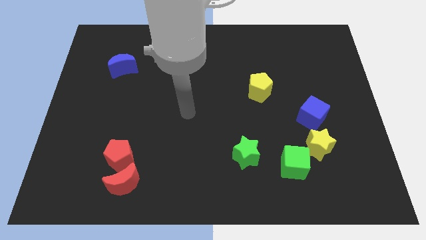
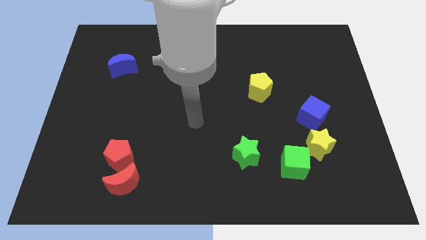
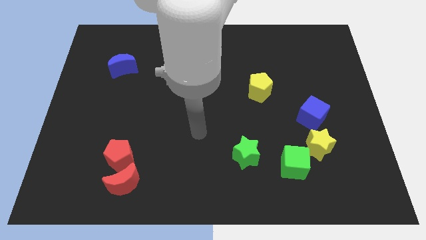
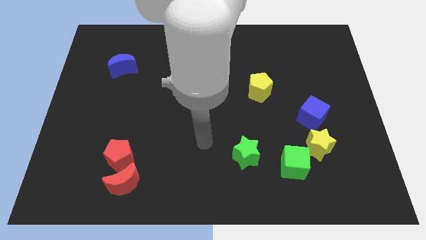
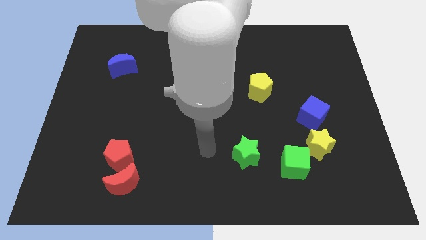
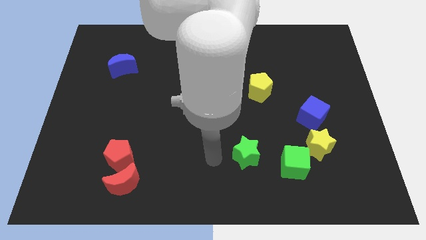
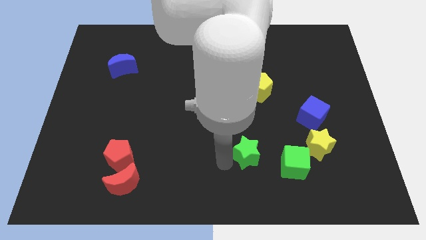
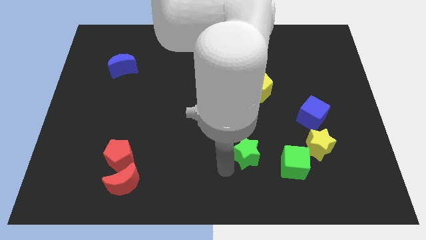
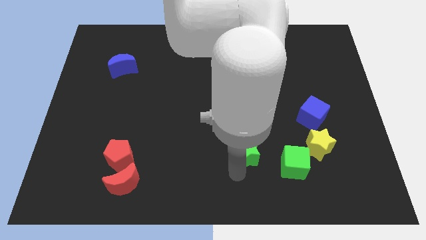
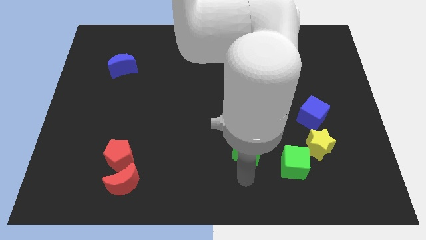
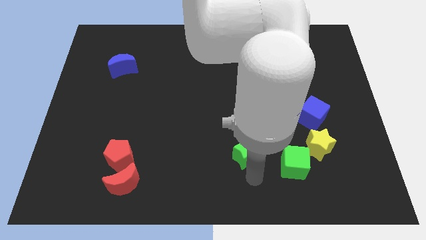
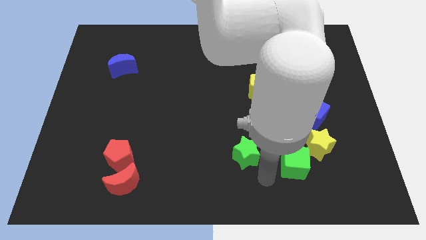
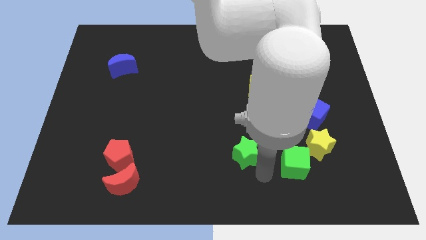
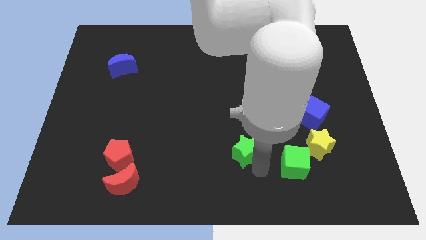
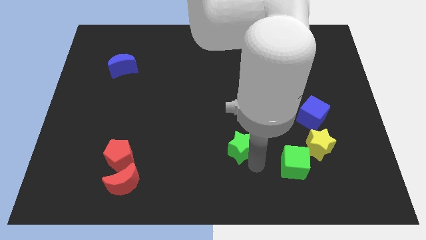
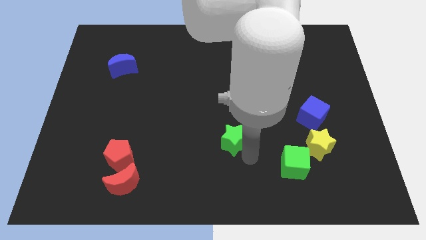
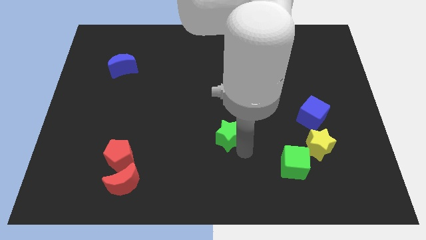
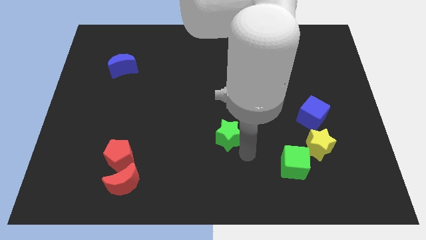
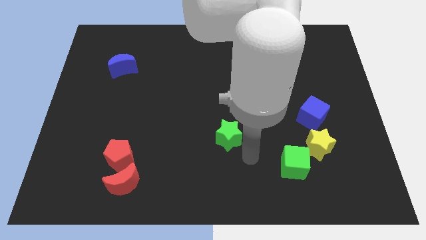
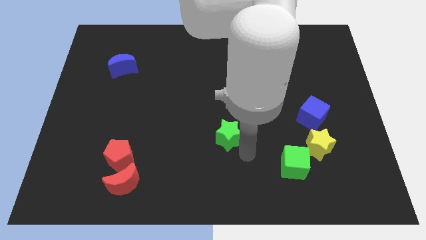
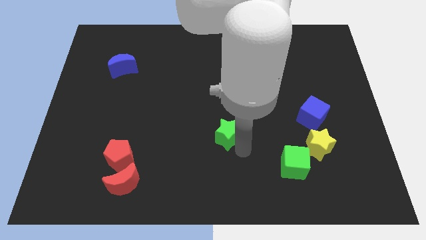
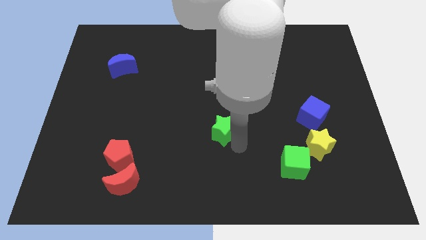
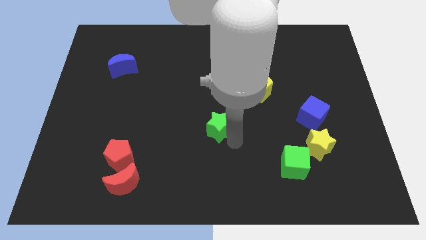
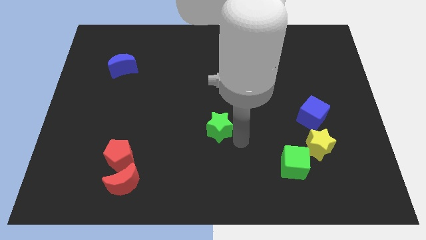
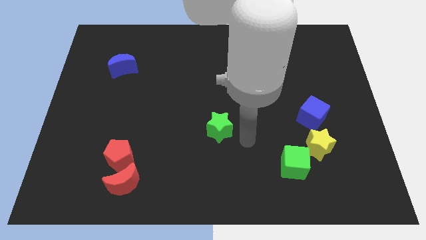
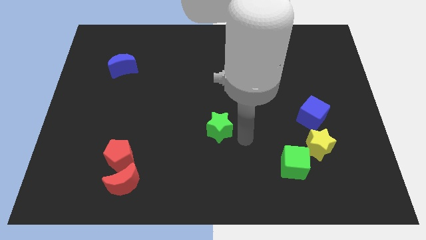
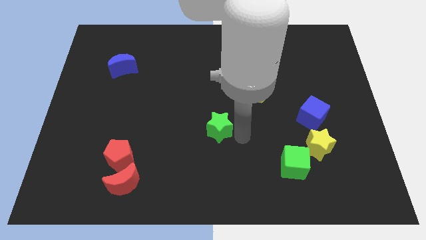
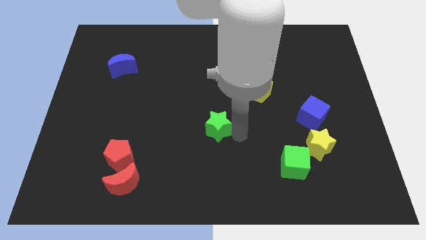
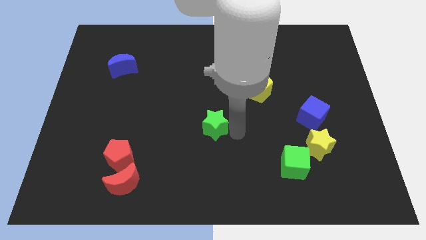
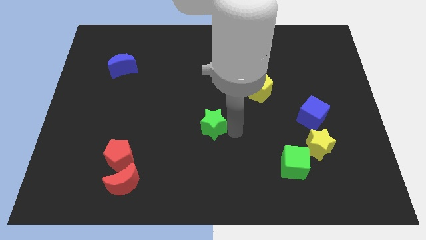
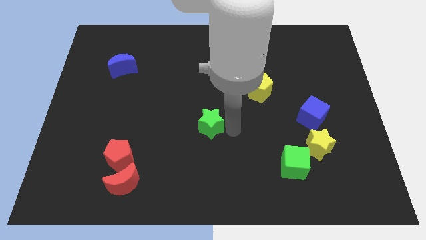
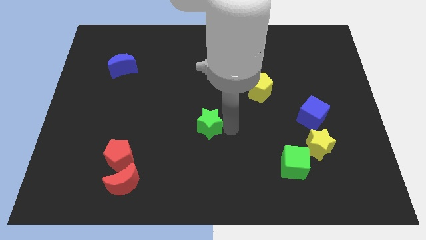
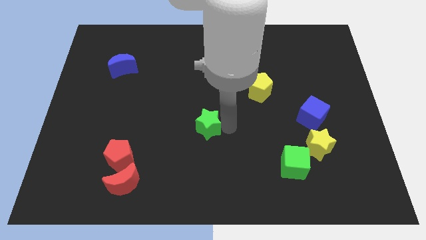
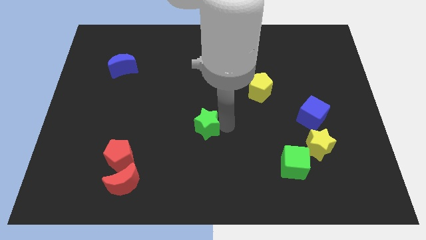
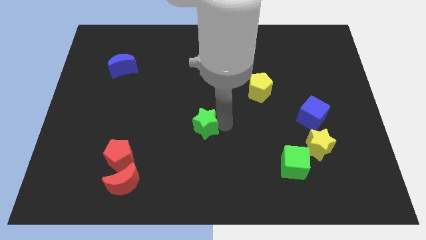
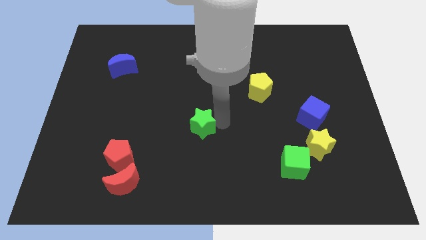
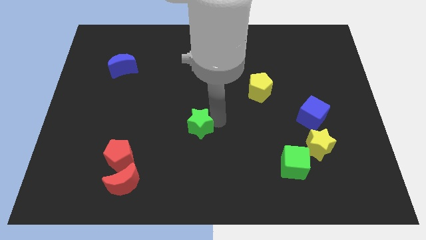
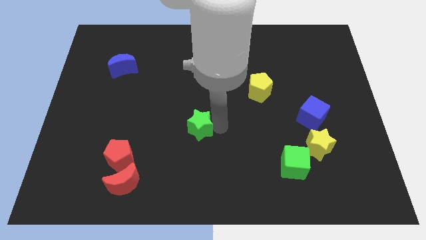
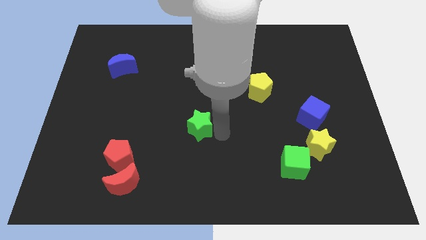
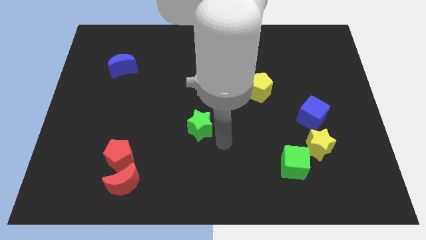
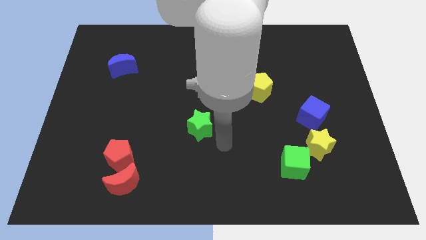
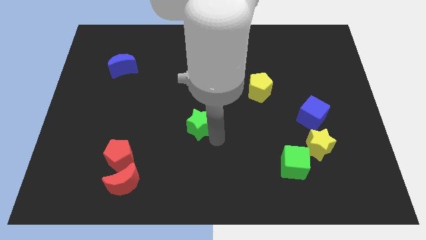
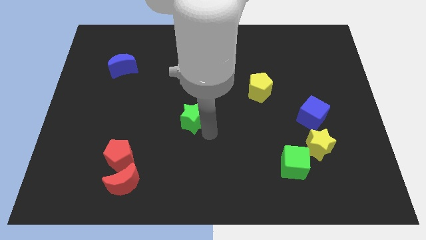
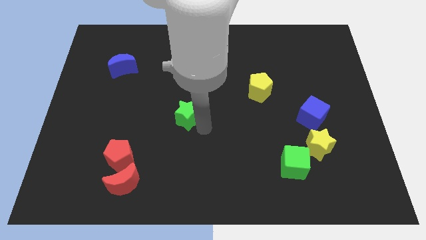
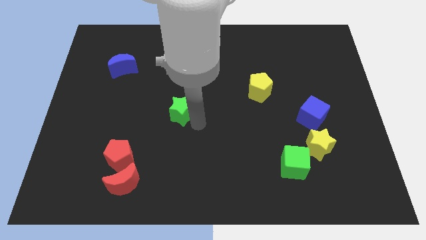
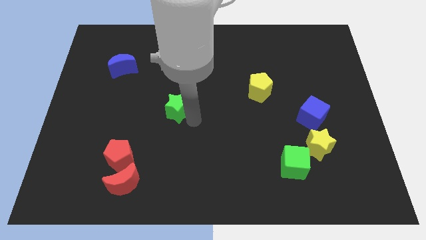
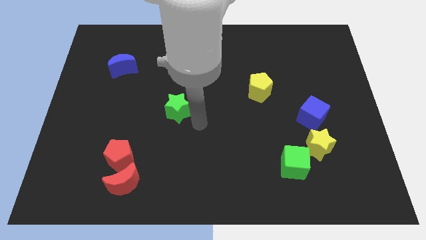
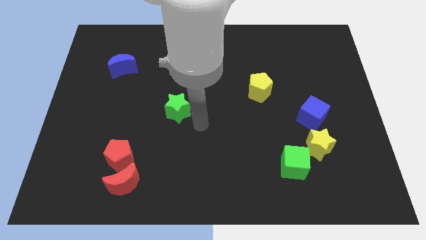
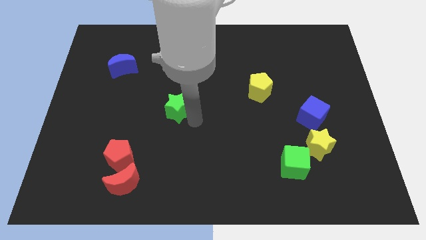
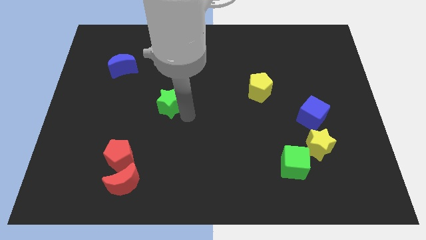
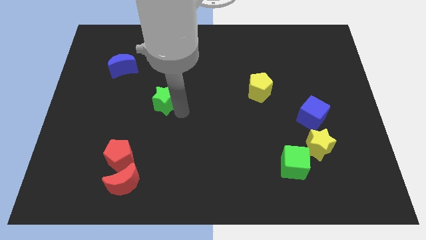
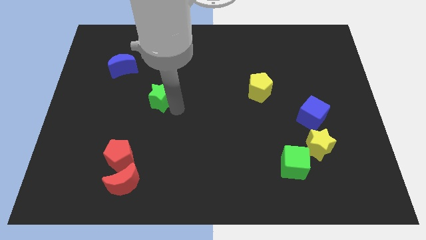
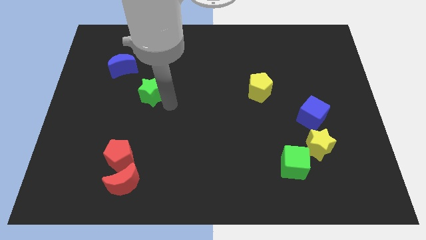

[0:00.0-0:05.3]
move the green star to the bottom right side of the blue moon

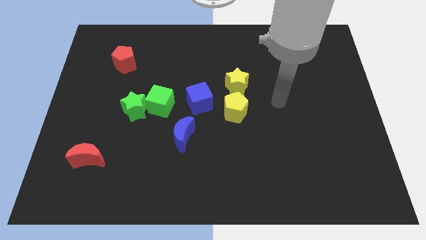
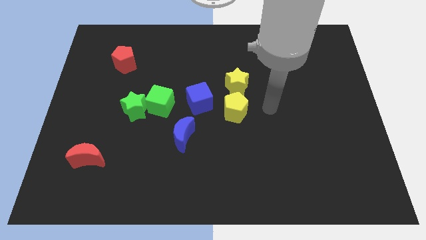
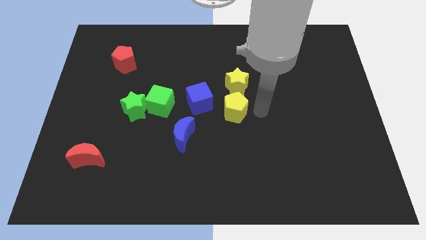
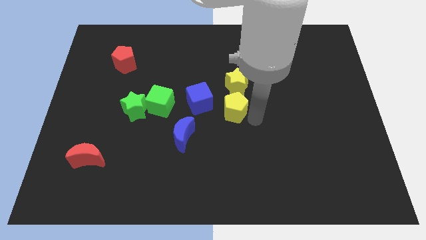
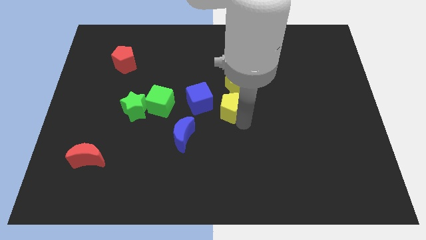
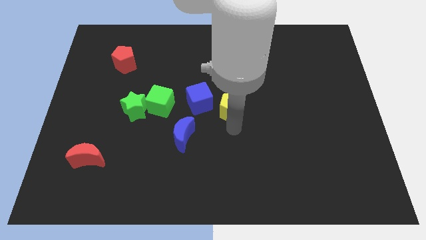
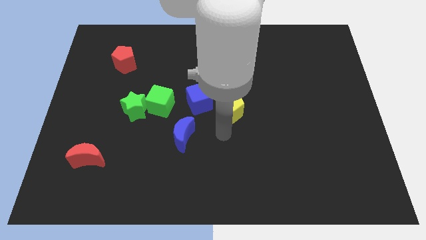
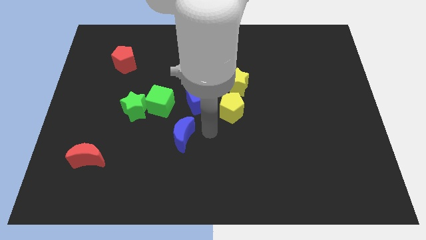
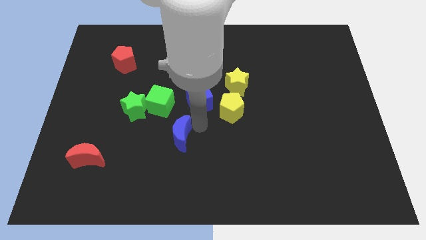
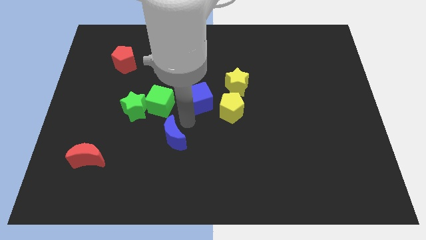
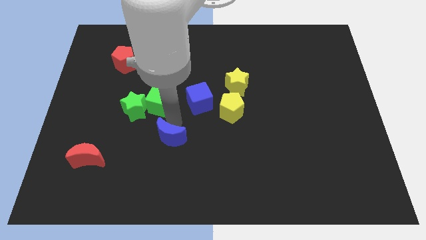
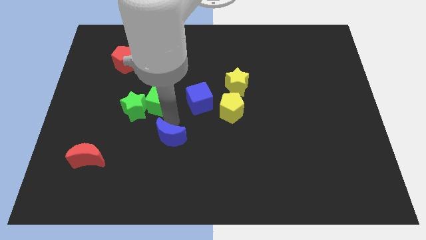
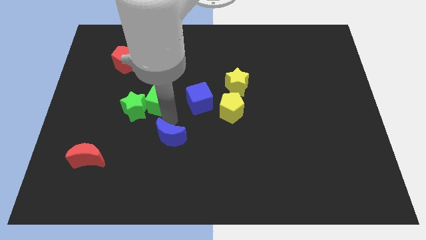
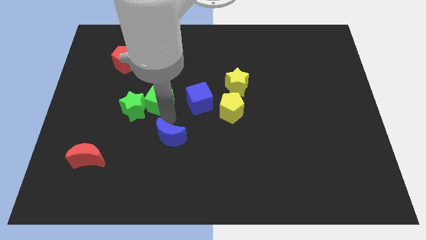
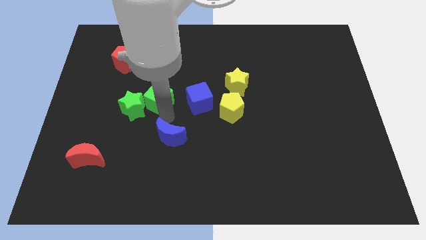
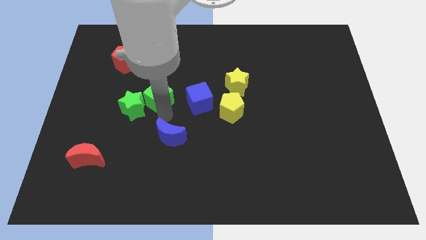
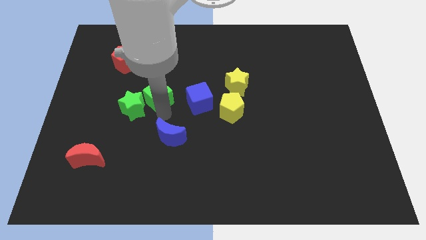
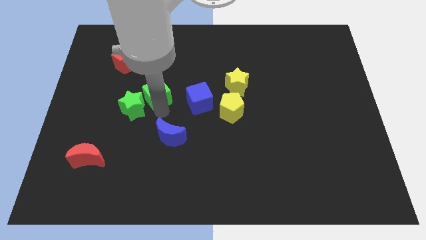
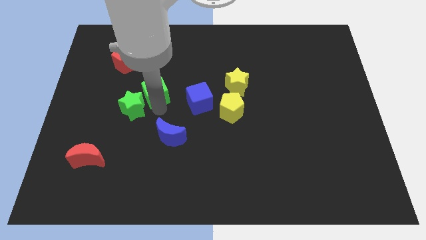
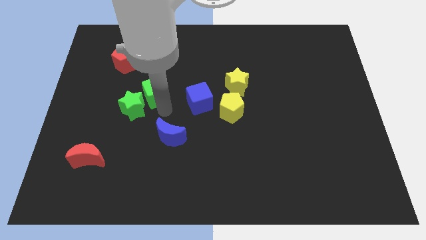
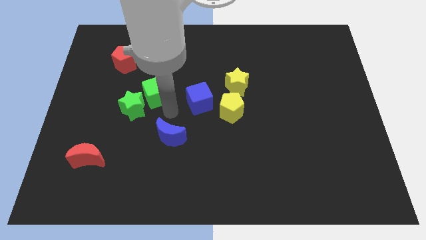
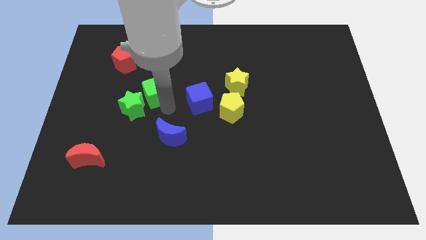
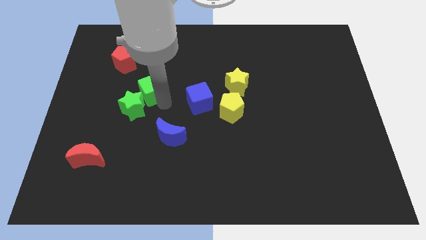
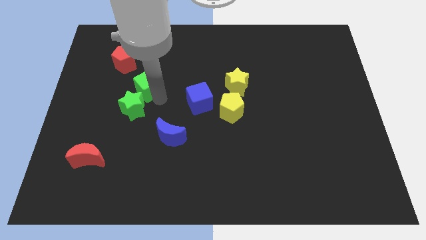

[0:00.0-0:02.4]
put the green cube to the bottom right side of the red pentagon
